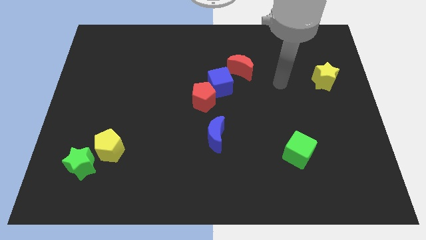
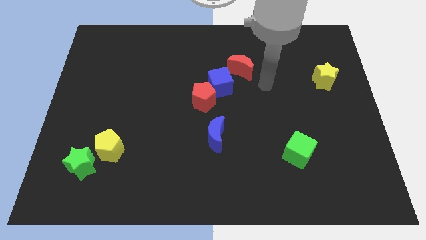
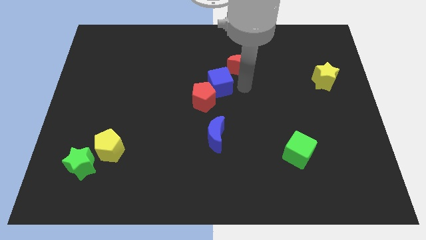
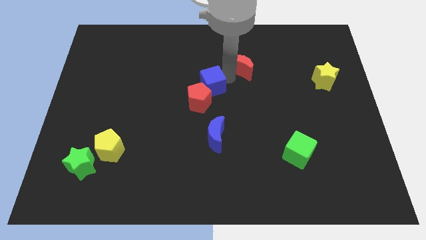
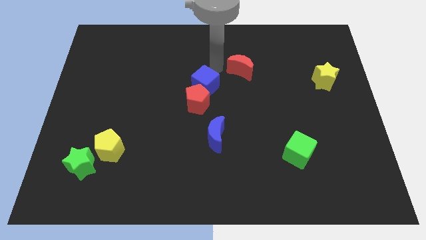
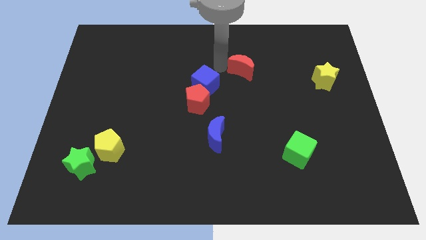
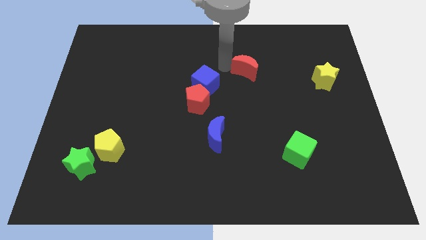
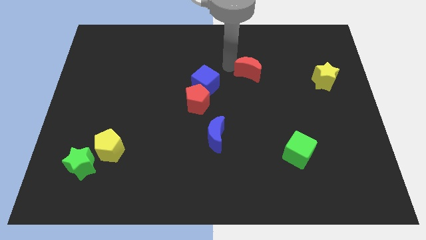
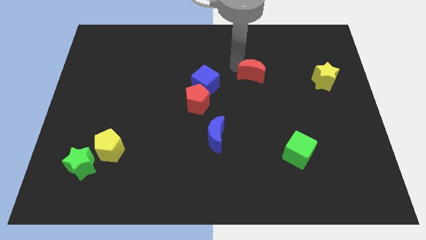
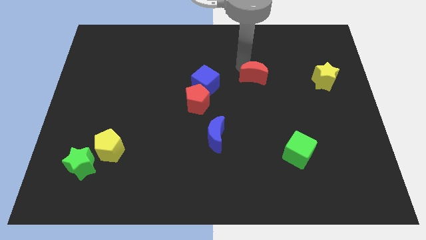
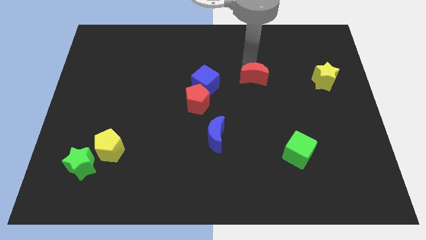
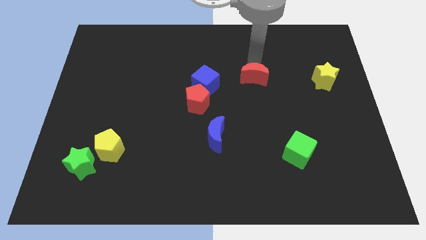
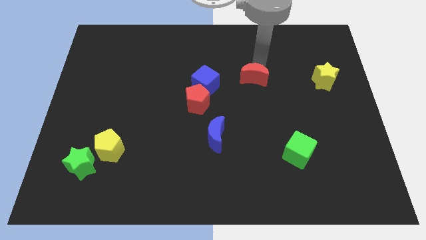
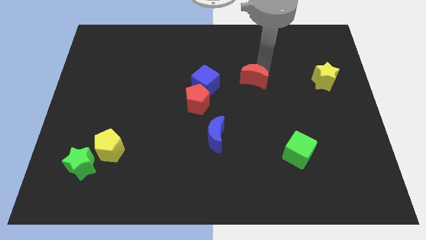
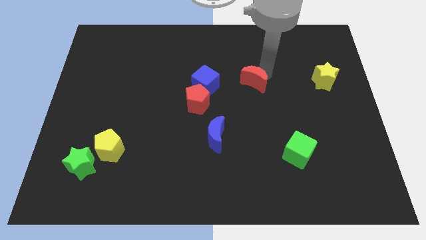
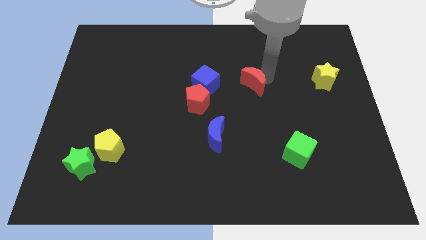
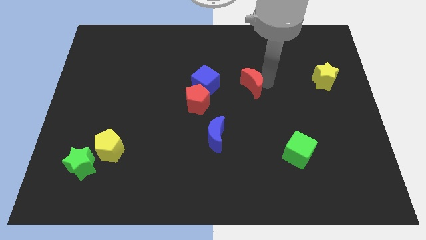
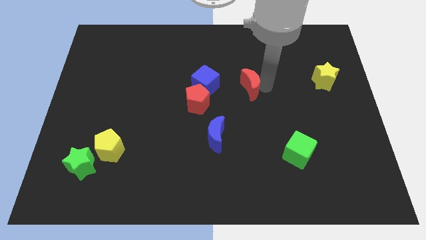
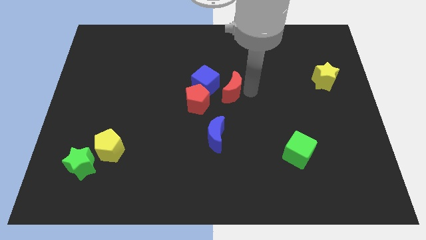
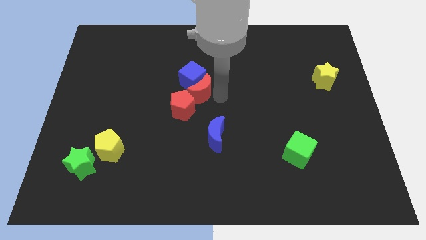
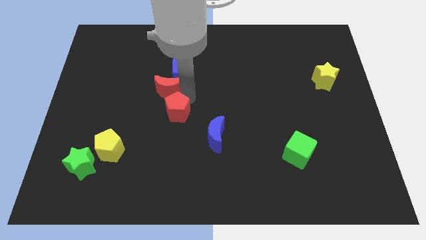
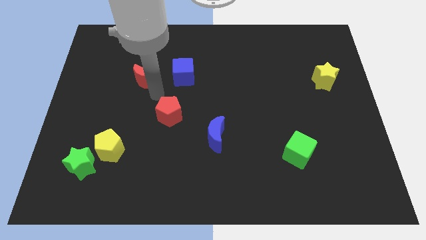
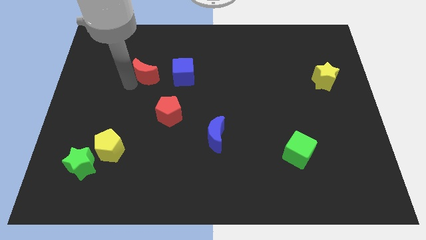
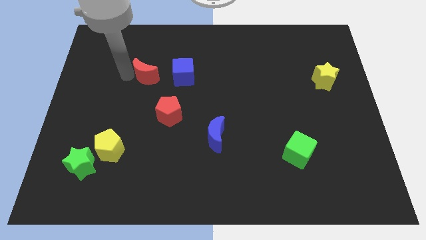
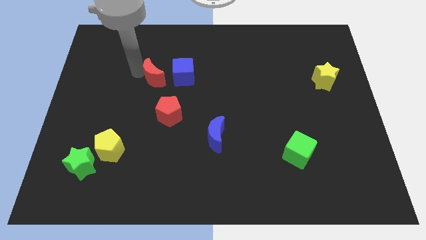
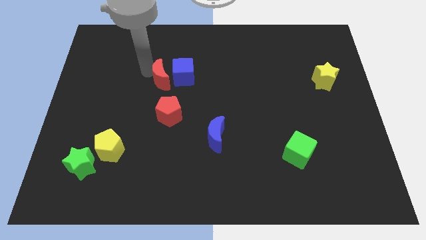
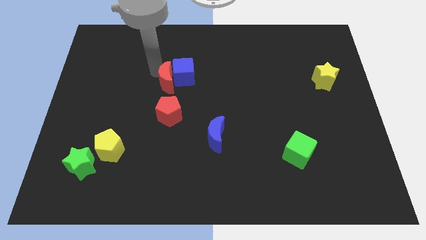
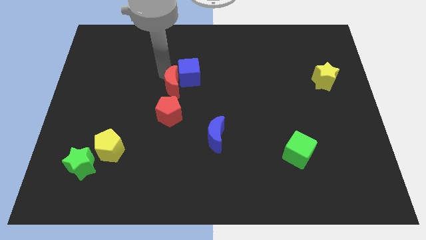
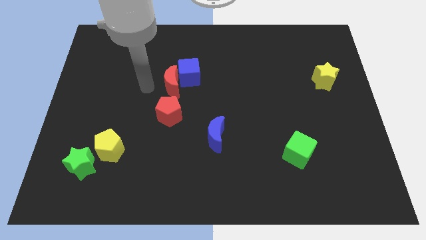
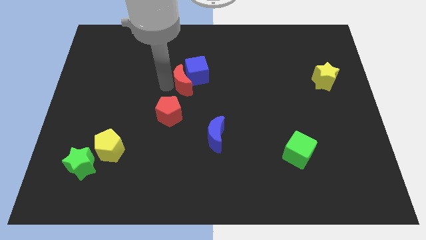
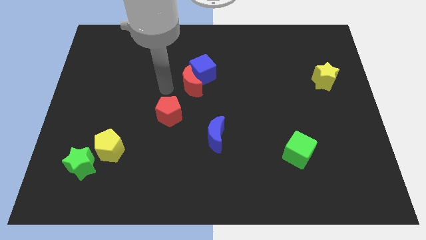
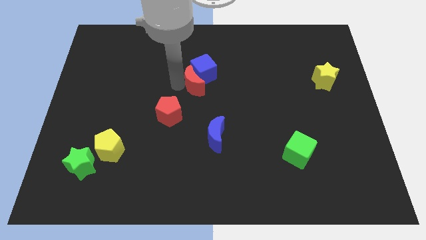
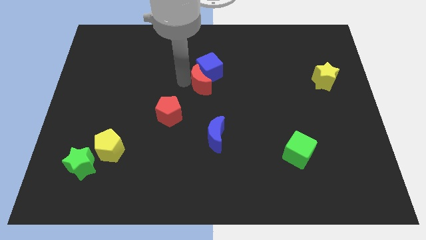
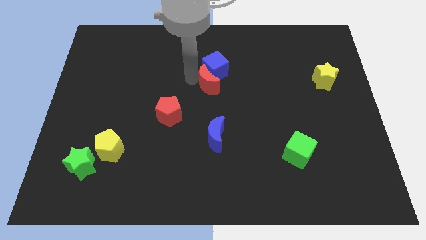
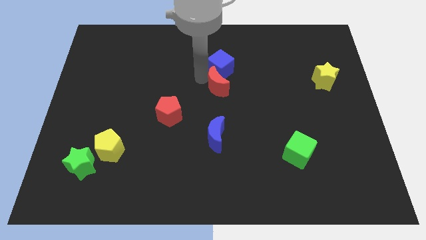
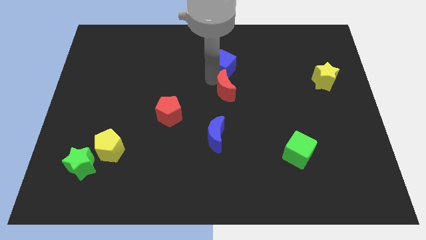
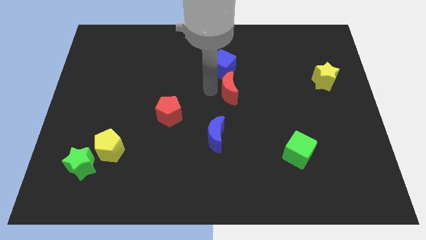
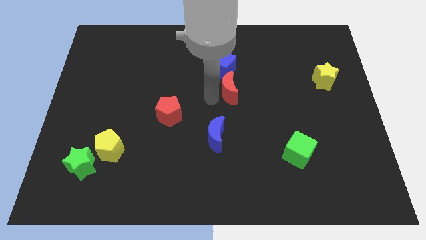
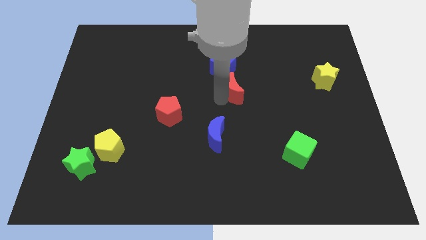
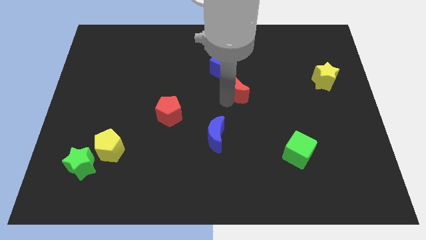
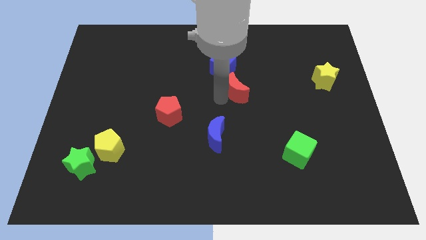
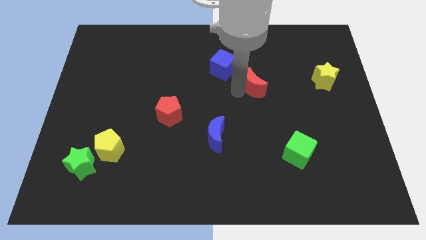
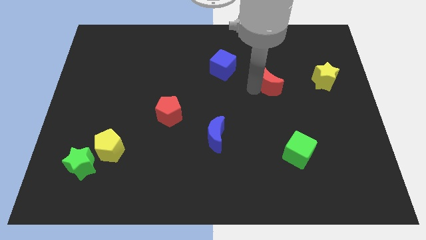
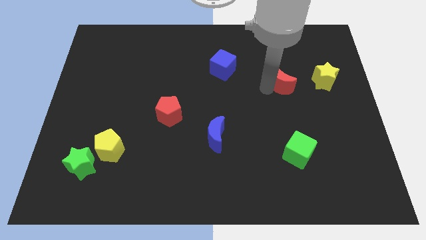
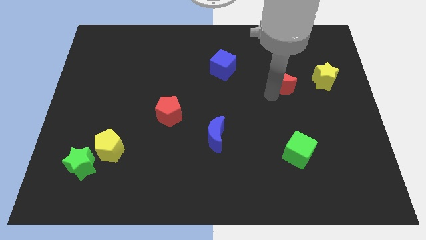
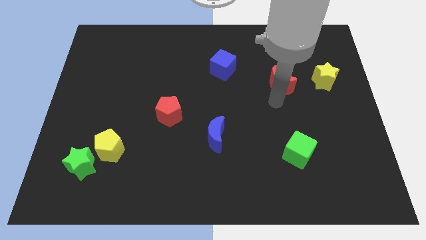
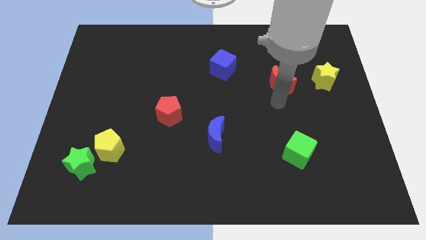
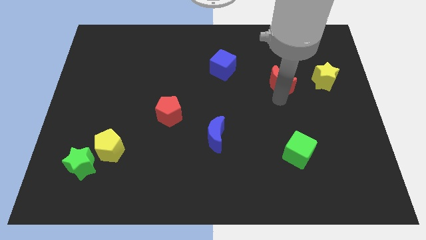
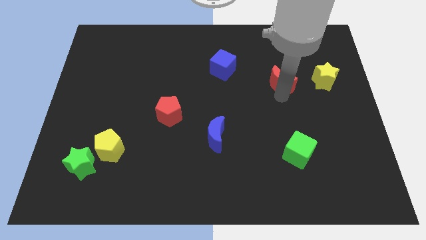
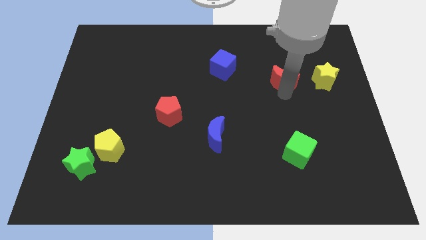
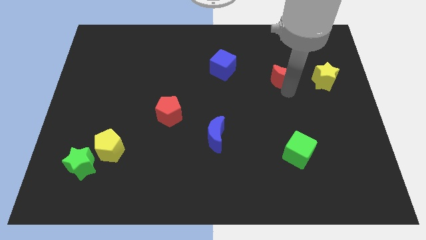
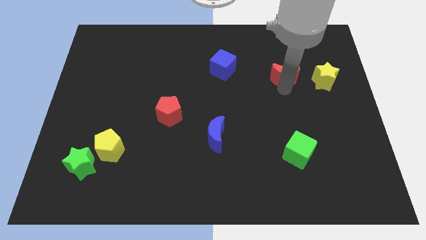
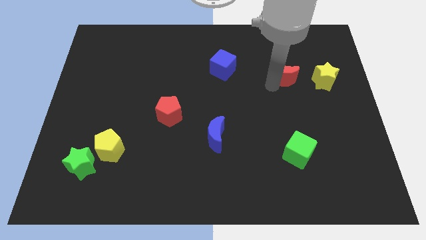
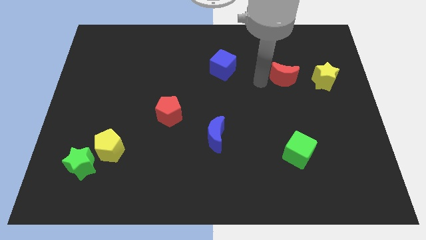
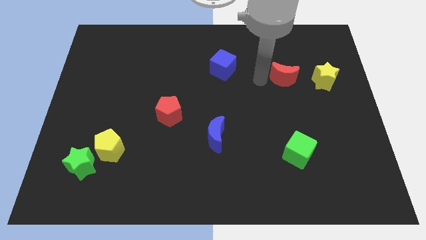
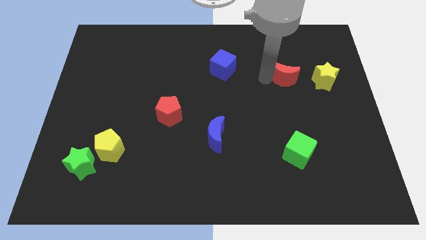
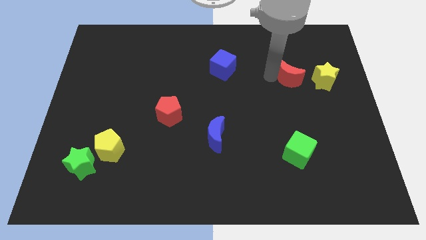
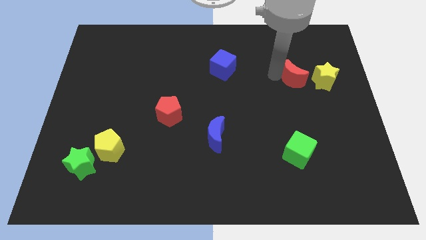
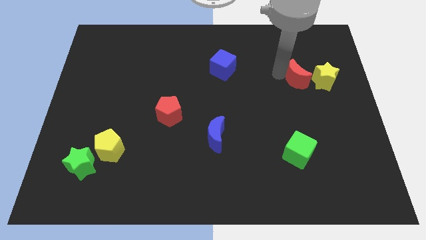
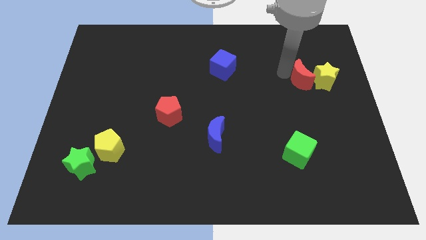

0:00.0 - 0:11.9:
push the red moon close to the yellow star

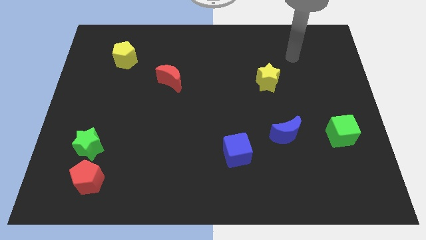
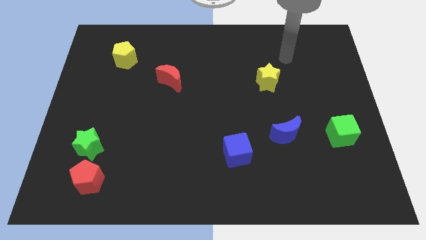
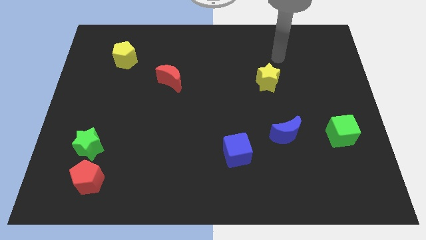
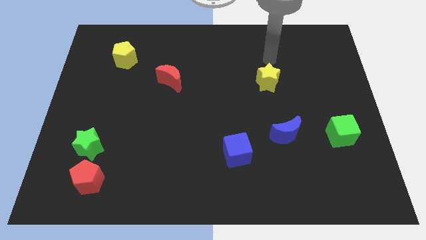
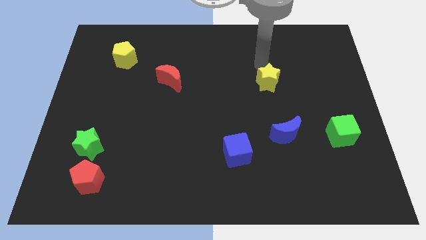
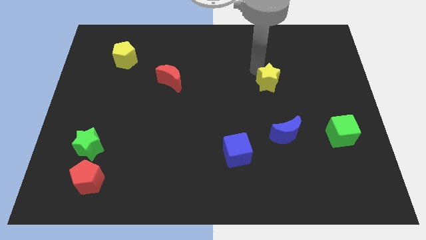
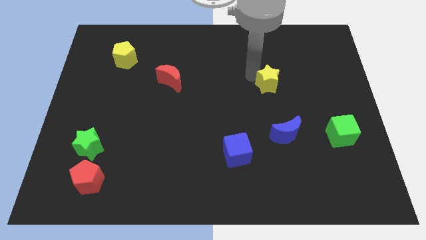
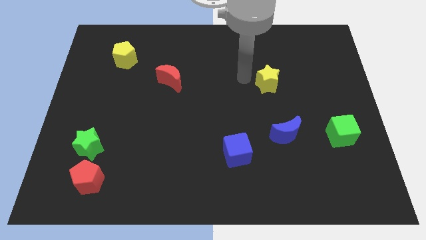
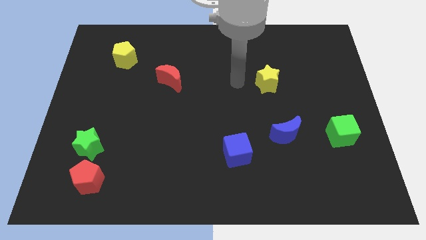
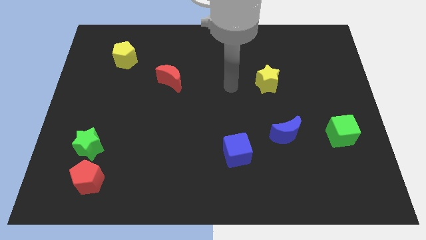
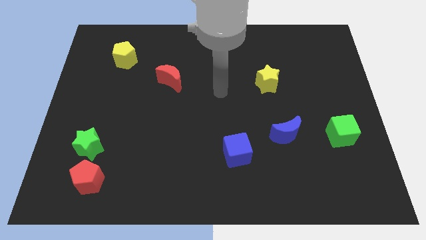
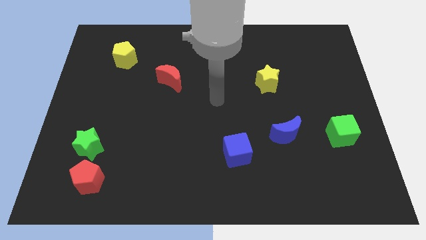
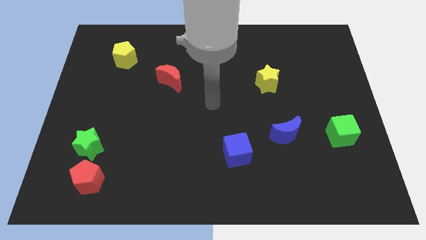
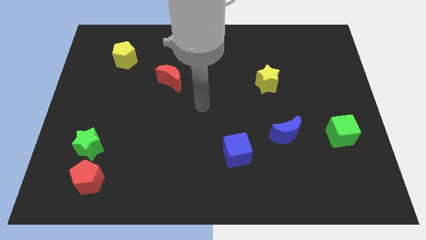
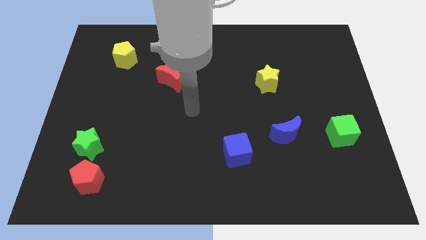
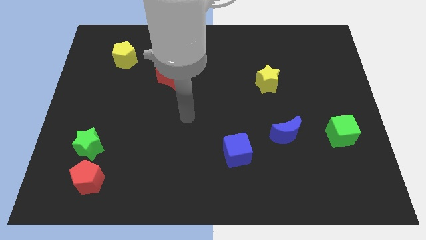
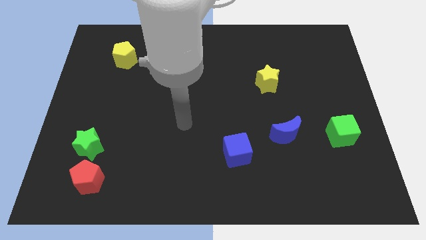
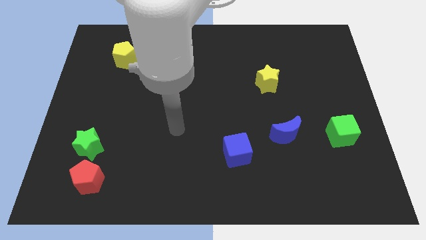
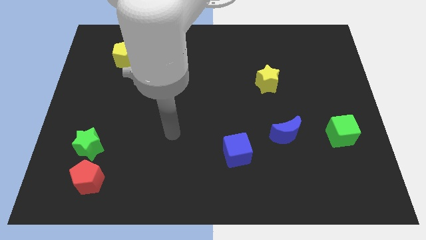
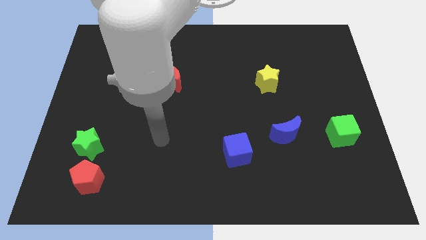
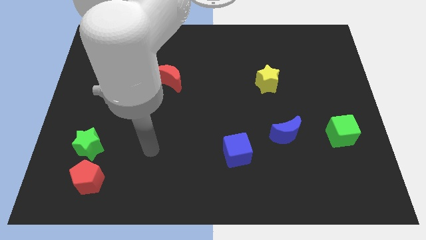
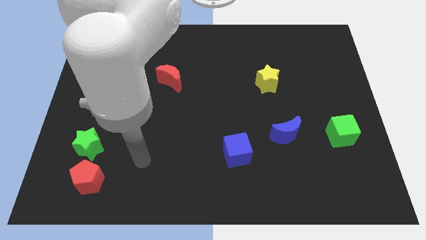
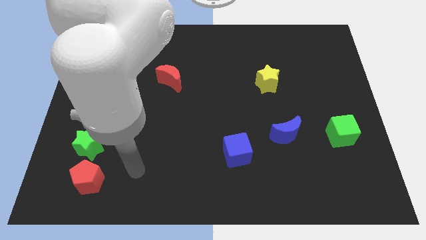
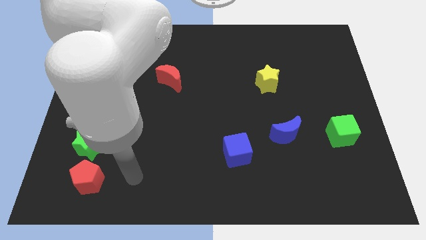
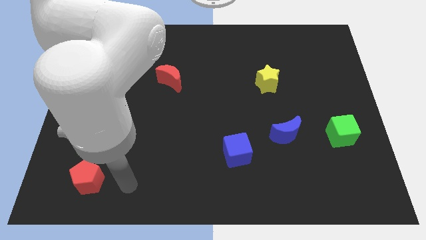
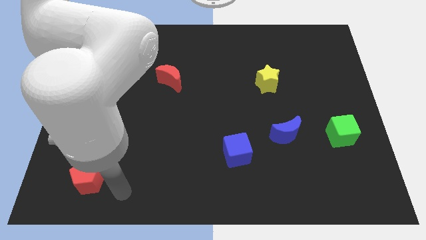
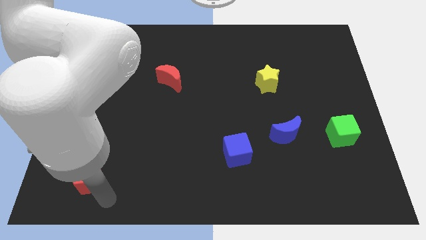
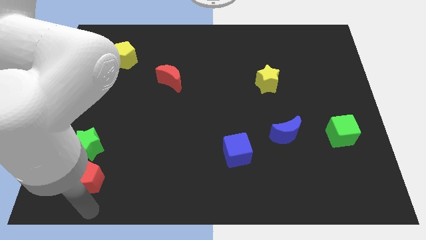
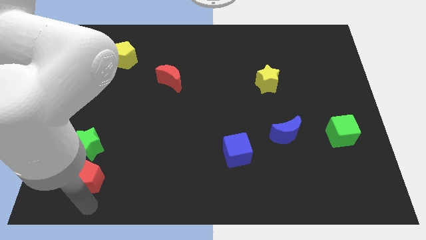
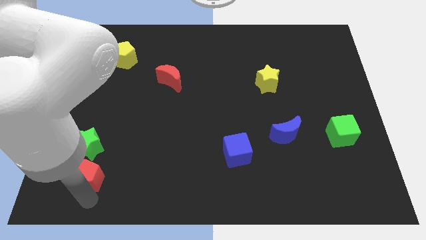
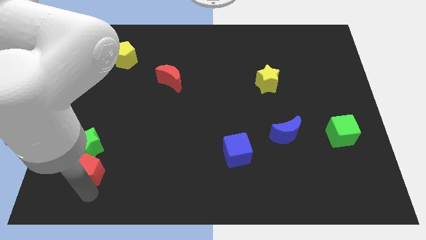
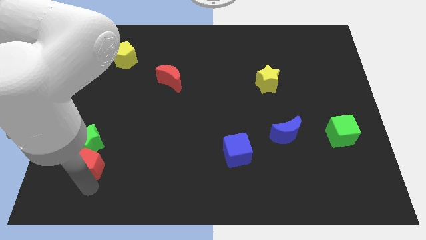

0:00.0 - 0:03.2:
put the red pentagon towards the green star
